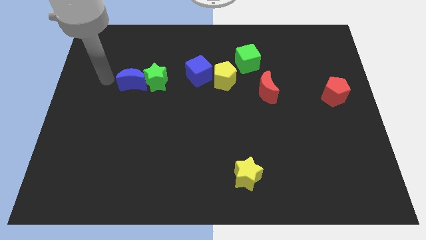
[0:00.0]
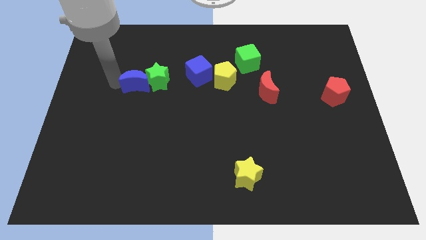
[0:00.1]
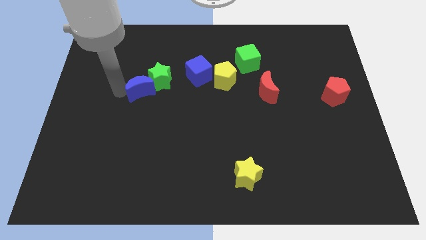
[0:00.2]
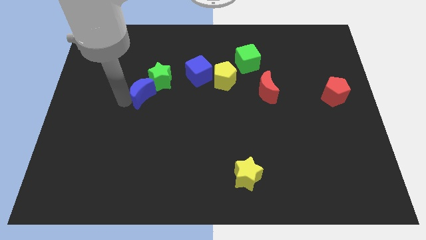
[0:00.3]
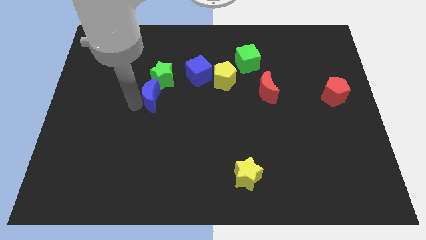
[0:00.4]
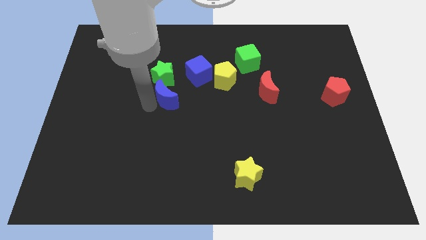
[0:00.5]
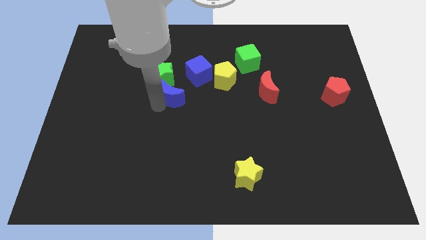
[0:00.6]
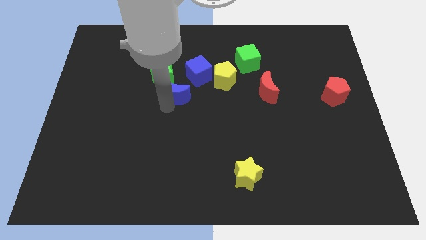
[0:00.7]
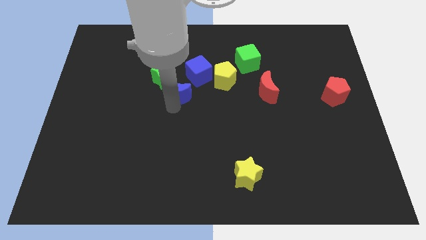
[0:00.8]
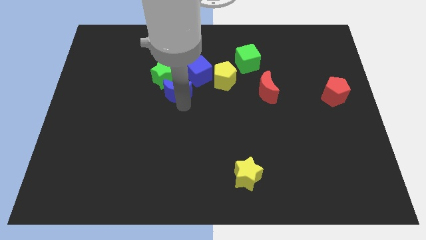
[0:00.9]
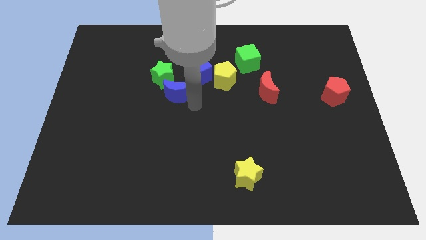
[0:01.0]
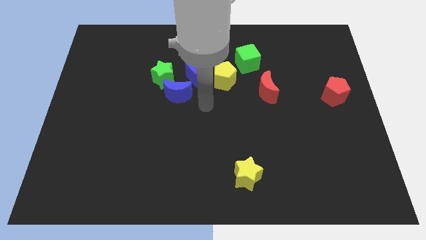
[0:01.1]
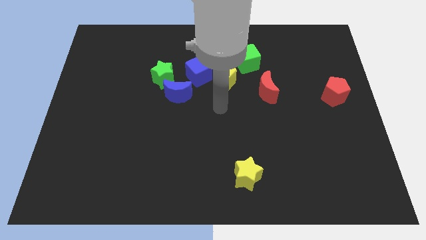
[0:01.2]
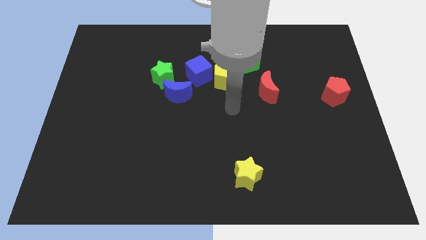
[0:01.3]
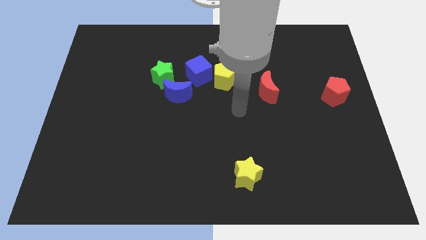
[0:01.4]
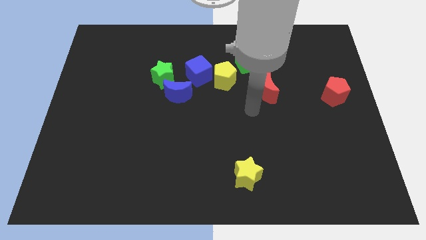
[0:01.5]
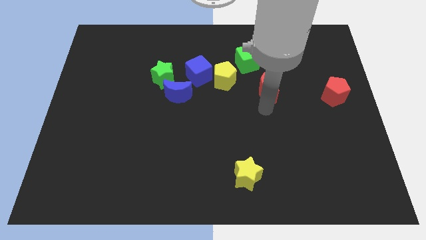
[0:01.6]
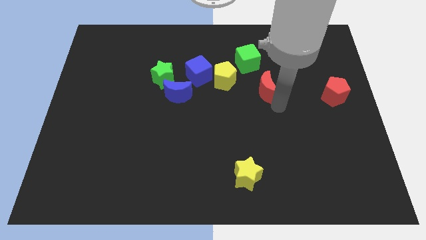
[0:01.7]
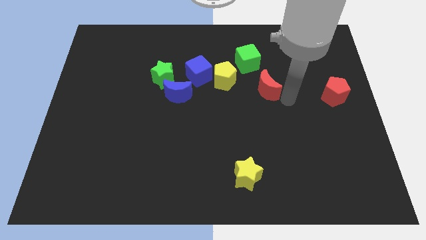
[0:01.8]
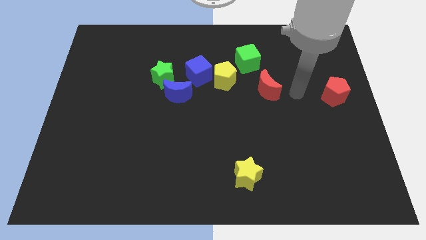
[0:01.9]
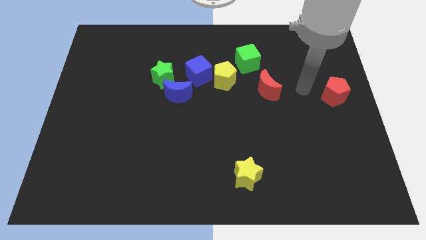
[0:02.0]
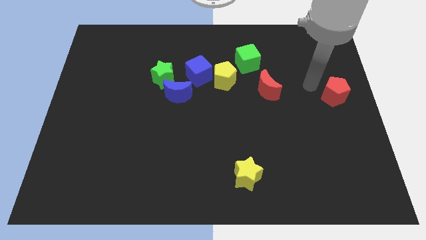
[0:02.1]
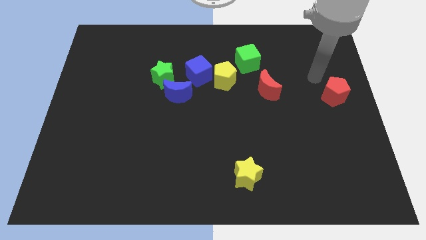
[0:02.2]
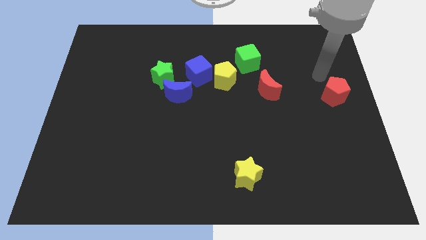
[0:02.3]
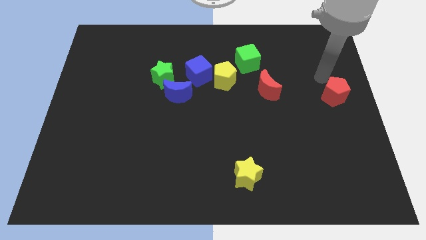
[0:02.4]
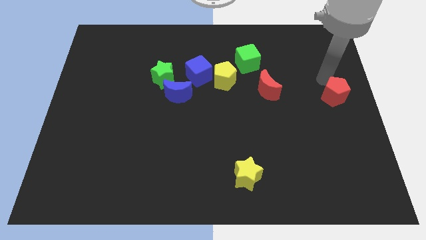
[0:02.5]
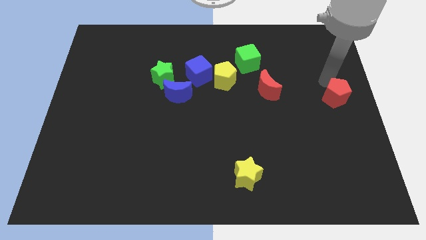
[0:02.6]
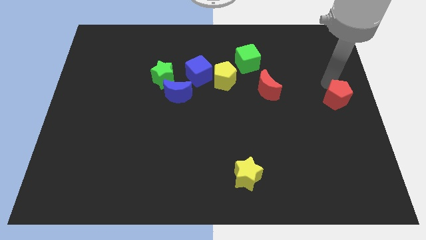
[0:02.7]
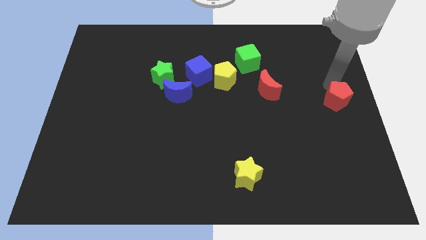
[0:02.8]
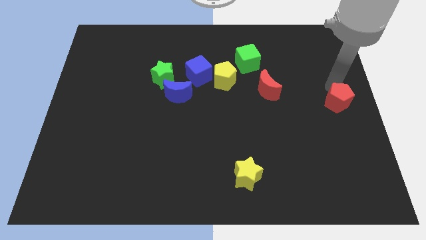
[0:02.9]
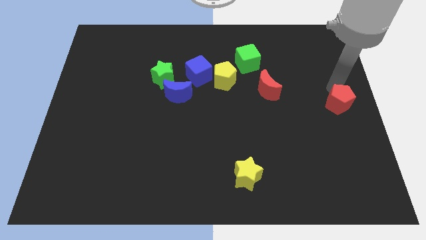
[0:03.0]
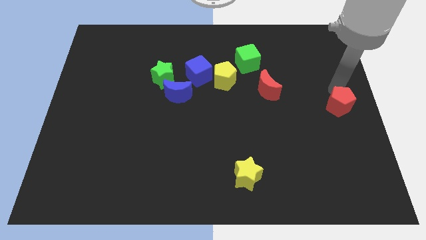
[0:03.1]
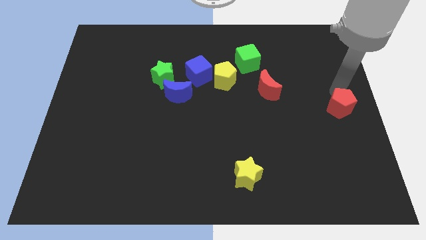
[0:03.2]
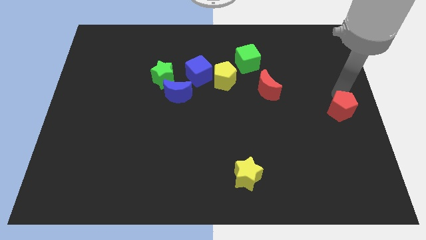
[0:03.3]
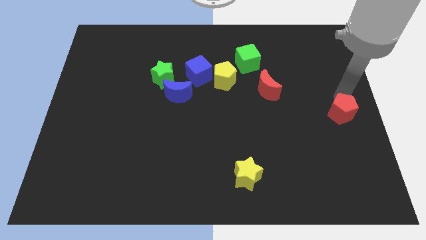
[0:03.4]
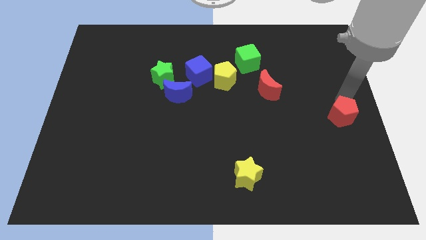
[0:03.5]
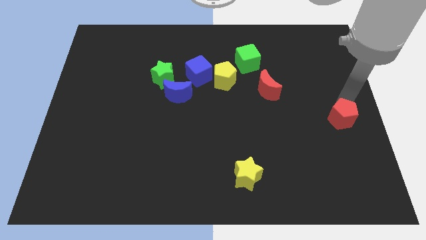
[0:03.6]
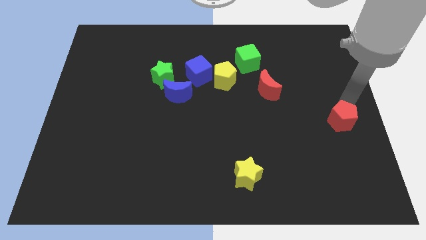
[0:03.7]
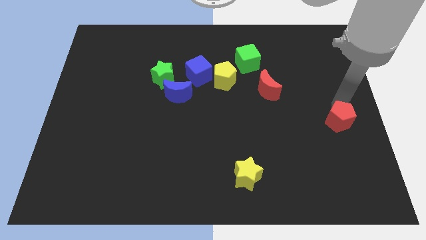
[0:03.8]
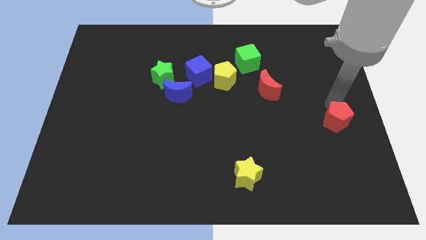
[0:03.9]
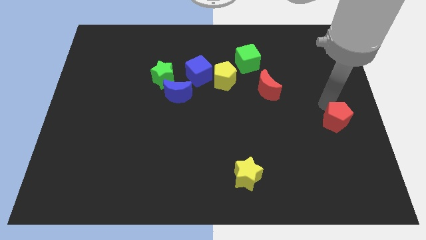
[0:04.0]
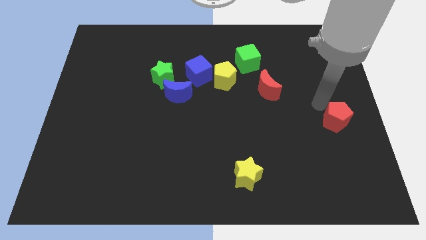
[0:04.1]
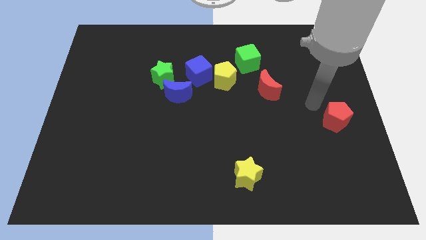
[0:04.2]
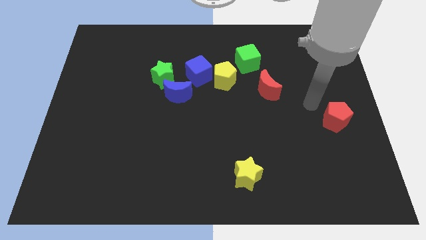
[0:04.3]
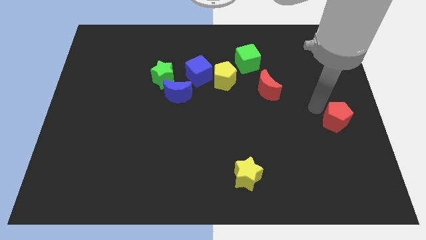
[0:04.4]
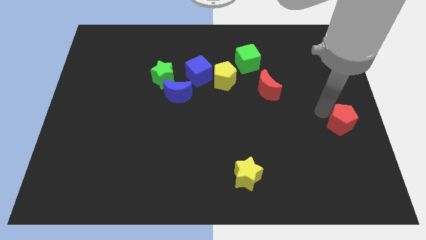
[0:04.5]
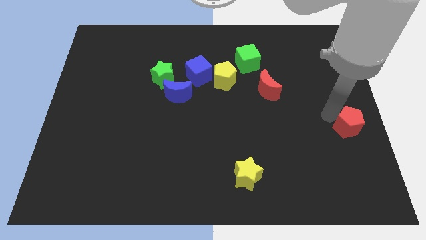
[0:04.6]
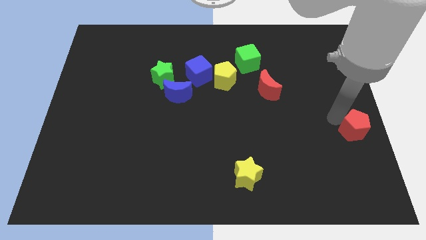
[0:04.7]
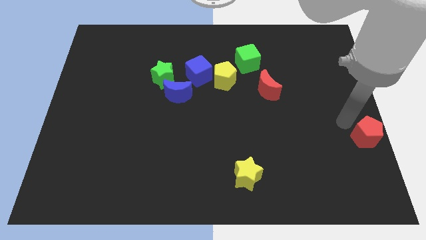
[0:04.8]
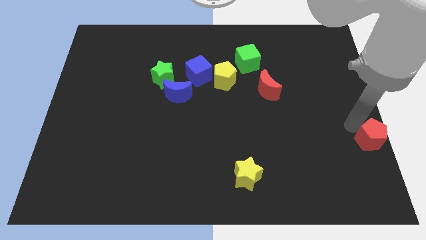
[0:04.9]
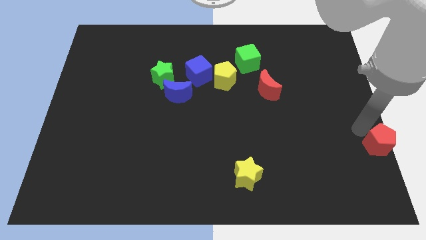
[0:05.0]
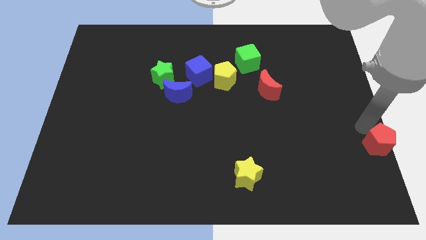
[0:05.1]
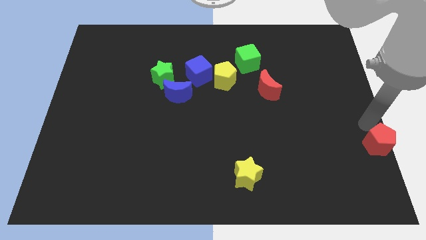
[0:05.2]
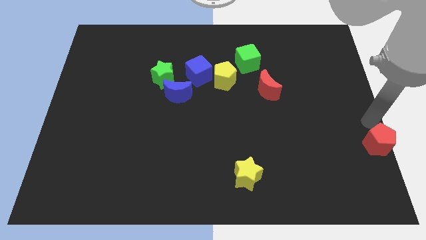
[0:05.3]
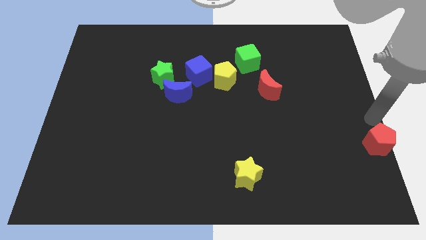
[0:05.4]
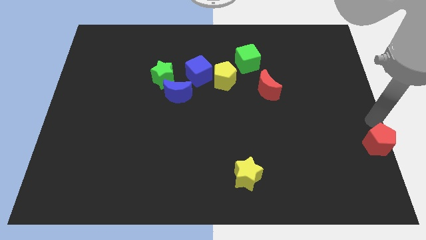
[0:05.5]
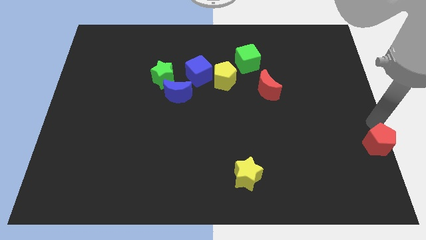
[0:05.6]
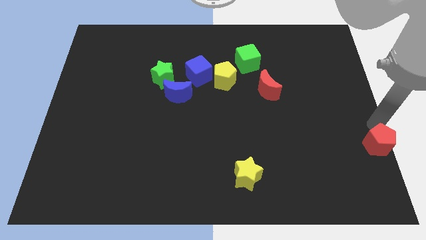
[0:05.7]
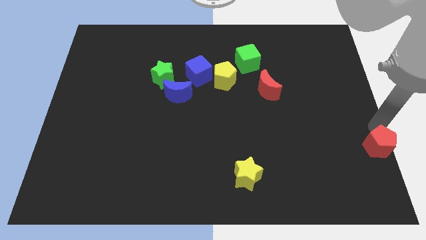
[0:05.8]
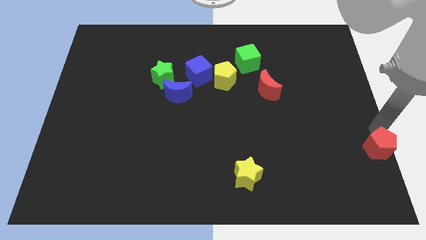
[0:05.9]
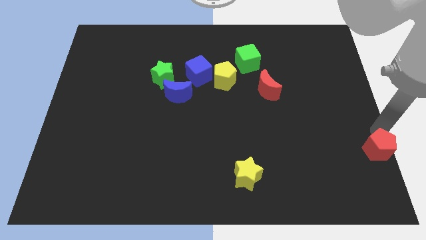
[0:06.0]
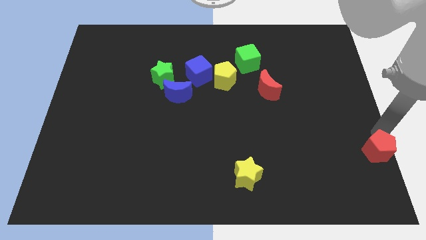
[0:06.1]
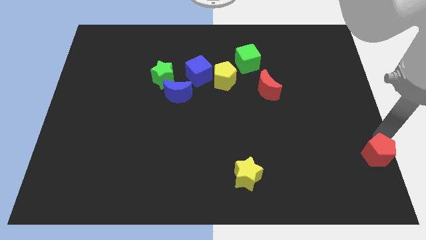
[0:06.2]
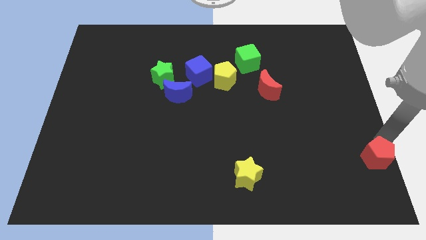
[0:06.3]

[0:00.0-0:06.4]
push the red pentagon to the bottom right of the board

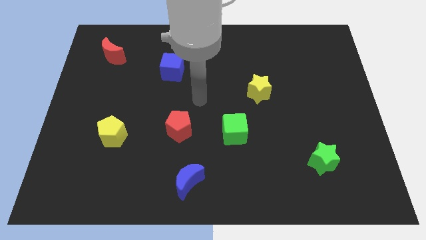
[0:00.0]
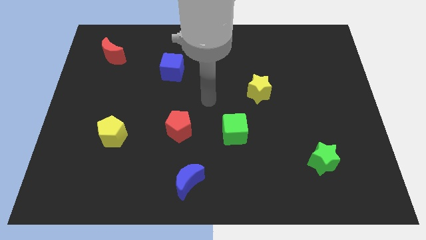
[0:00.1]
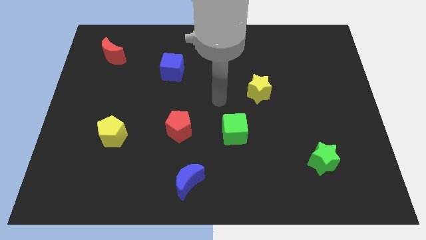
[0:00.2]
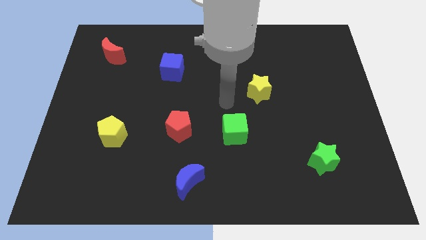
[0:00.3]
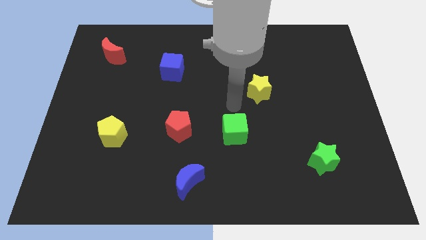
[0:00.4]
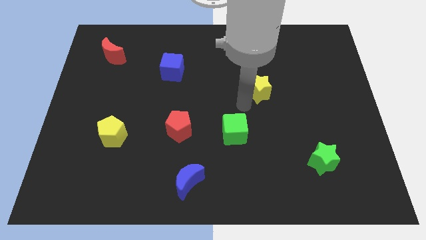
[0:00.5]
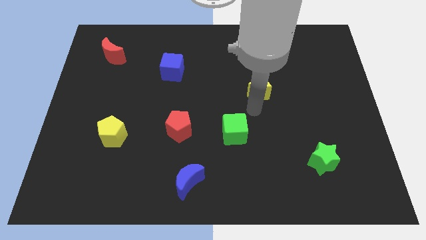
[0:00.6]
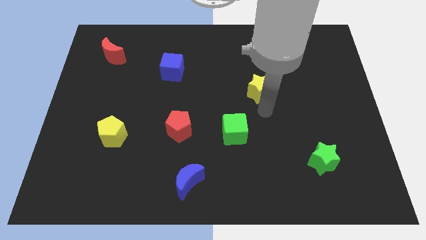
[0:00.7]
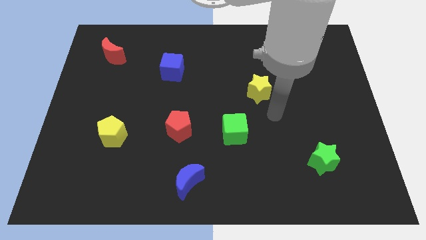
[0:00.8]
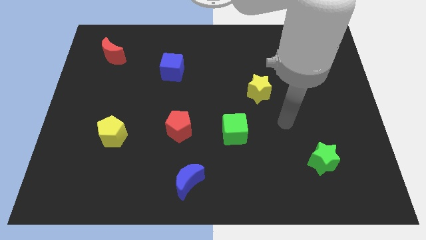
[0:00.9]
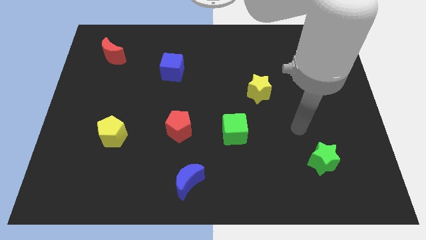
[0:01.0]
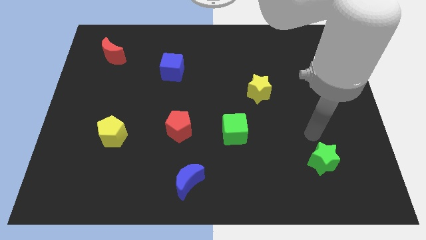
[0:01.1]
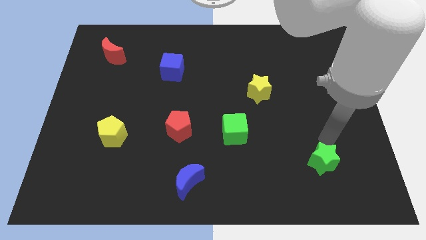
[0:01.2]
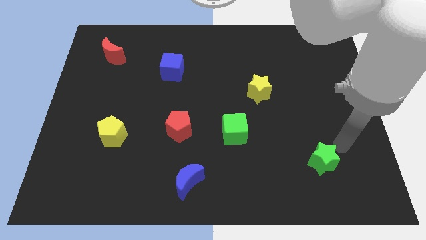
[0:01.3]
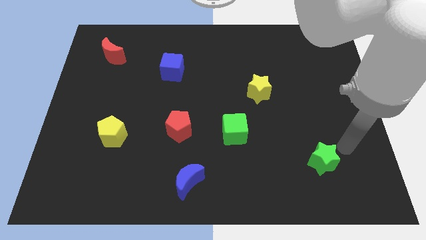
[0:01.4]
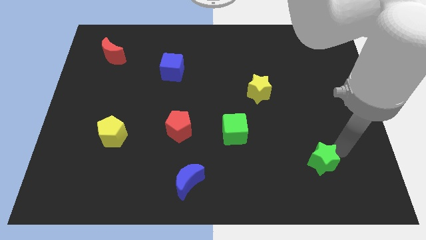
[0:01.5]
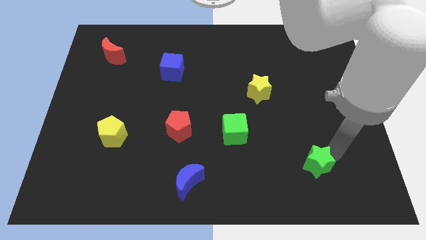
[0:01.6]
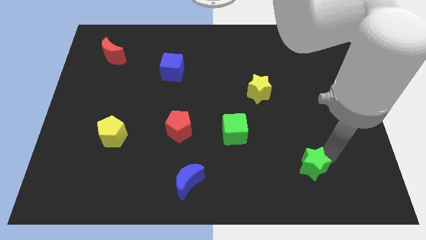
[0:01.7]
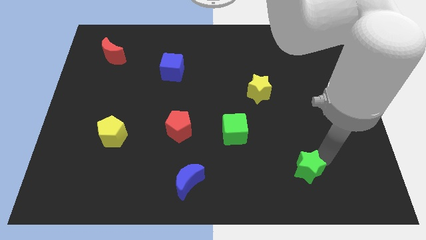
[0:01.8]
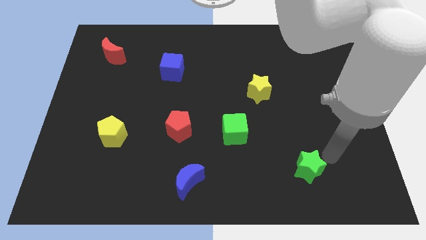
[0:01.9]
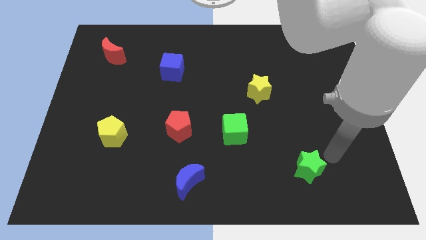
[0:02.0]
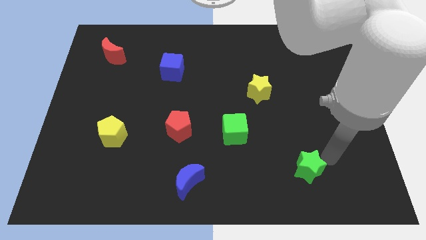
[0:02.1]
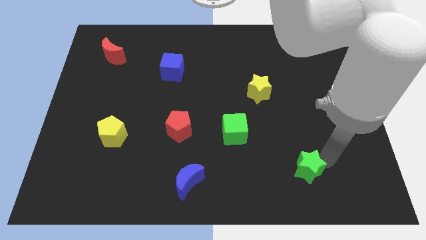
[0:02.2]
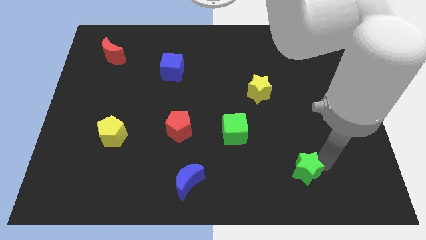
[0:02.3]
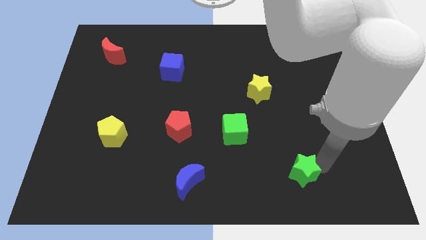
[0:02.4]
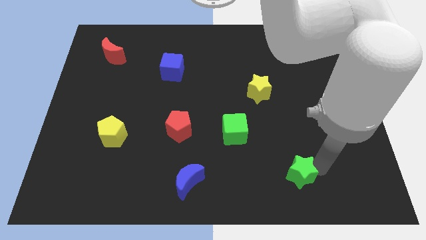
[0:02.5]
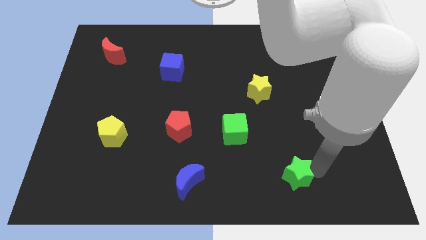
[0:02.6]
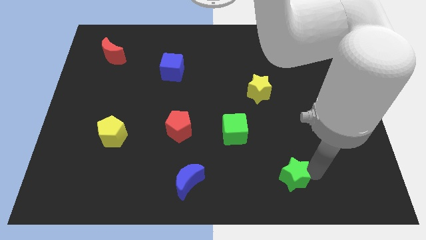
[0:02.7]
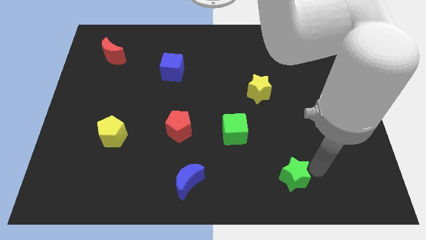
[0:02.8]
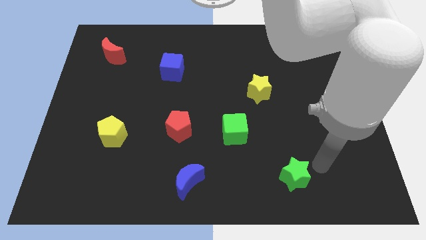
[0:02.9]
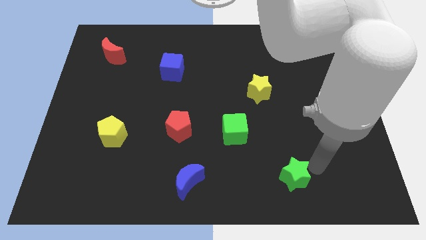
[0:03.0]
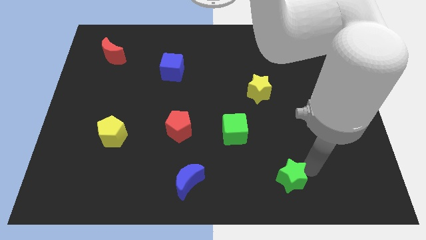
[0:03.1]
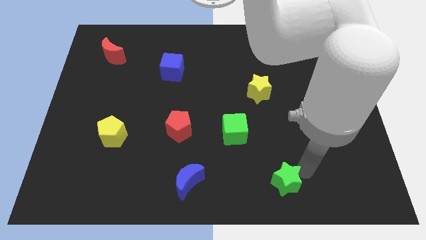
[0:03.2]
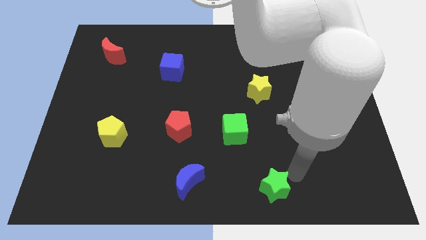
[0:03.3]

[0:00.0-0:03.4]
push the green star to the bottom side
